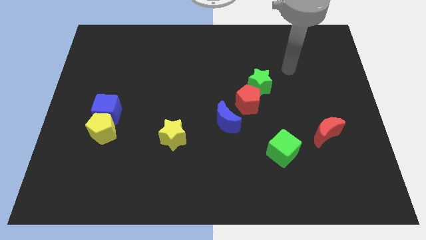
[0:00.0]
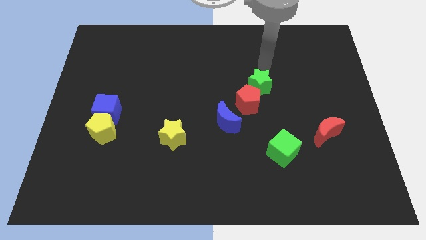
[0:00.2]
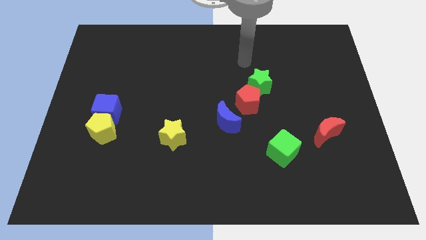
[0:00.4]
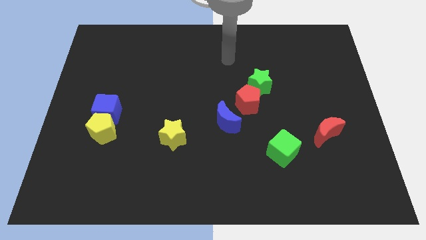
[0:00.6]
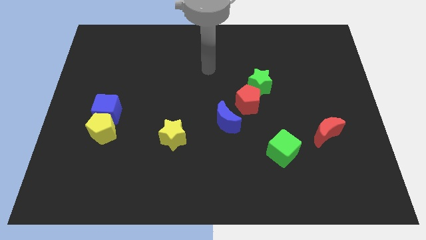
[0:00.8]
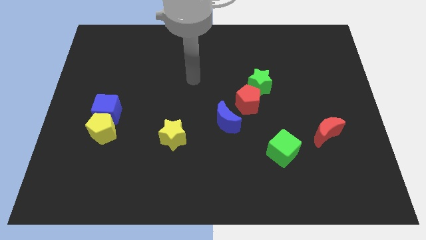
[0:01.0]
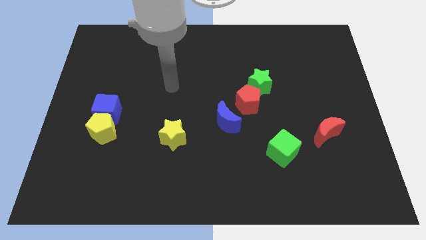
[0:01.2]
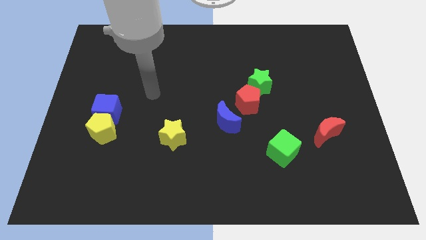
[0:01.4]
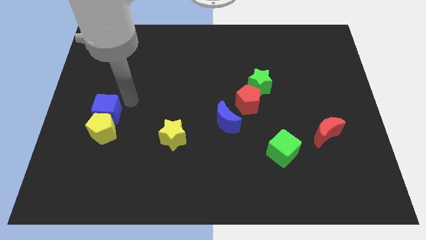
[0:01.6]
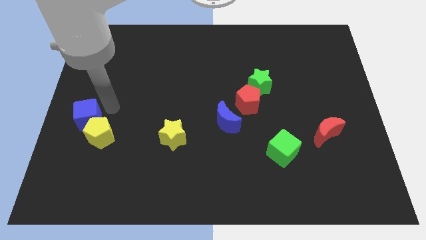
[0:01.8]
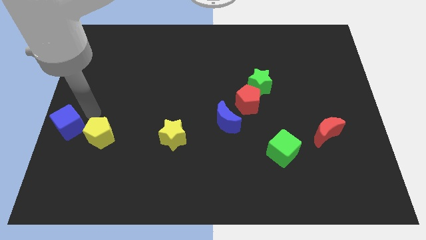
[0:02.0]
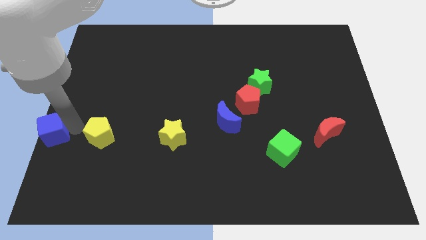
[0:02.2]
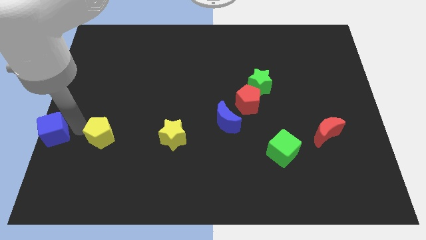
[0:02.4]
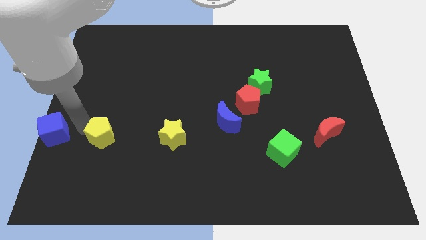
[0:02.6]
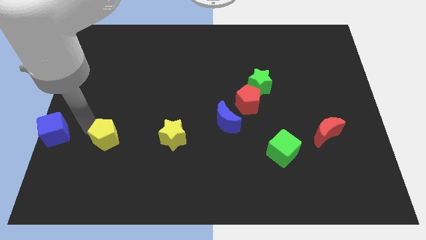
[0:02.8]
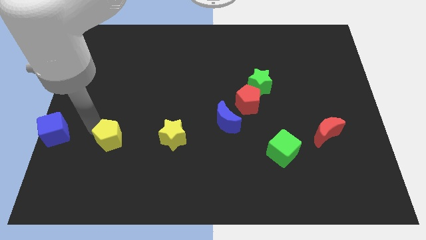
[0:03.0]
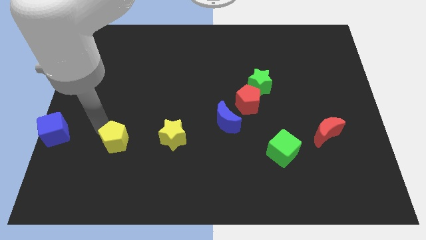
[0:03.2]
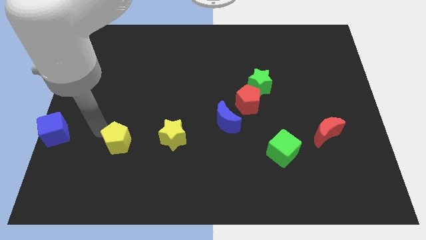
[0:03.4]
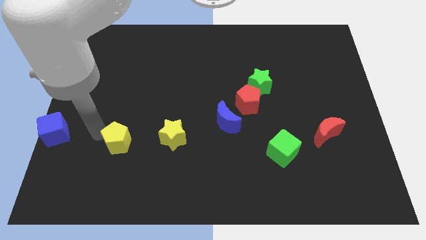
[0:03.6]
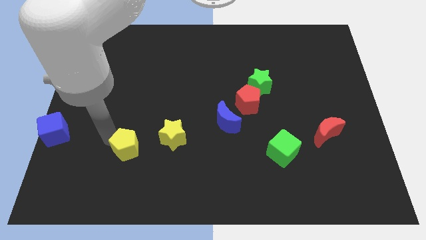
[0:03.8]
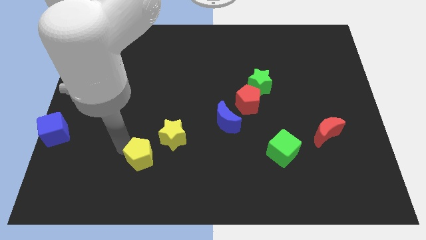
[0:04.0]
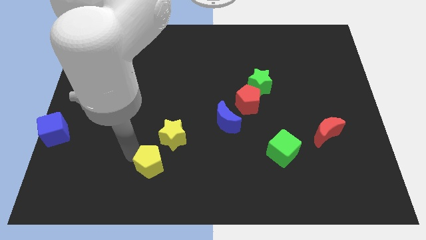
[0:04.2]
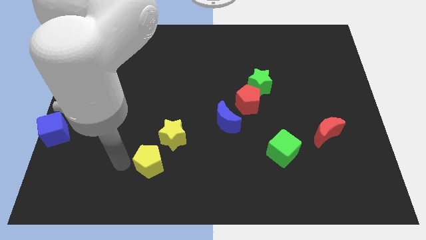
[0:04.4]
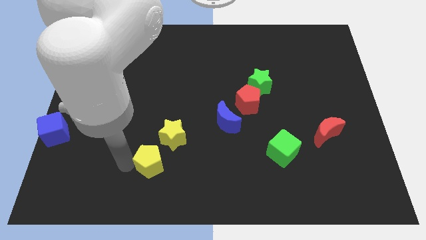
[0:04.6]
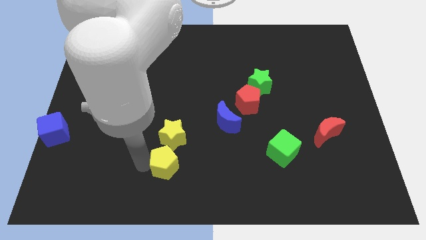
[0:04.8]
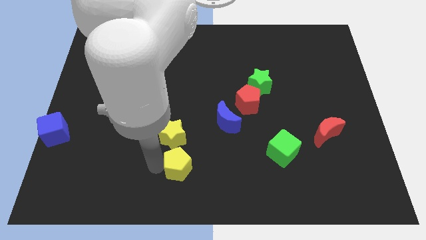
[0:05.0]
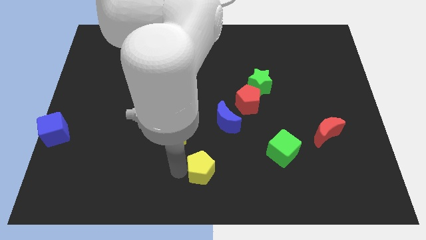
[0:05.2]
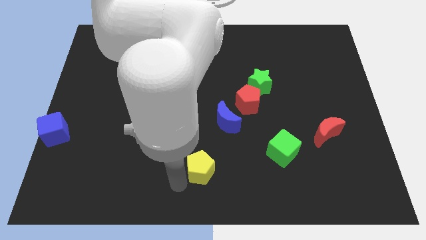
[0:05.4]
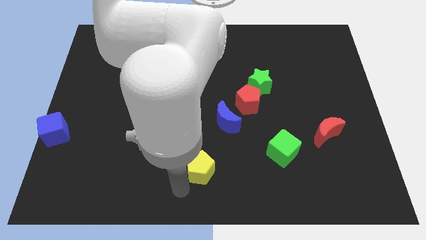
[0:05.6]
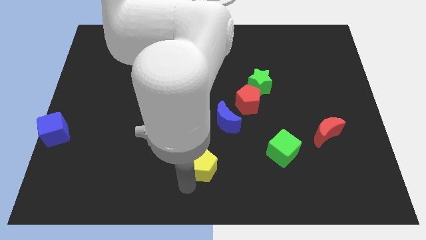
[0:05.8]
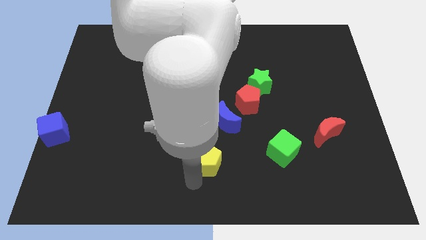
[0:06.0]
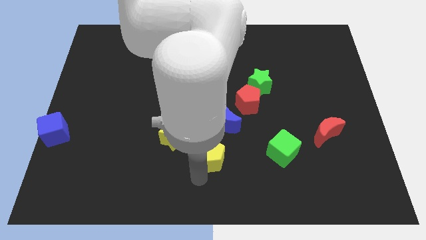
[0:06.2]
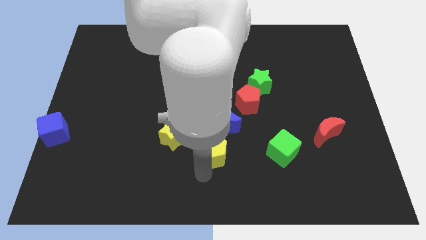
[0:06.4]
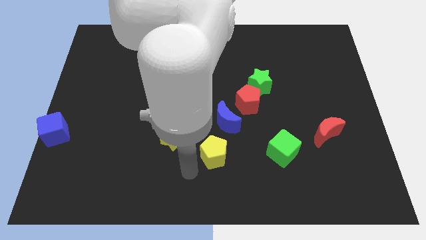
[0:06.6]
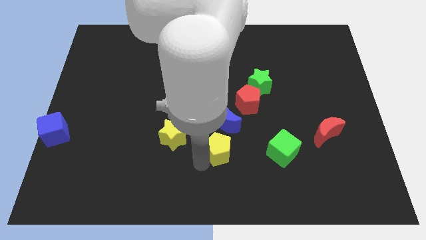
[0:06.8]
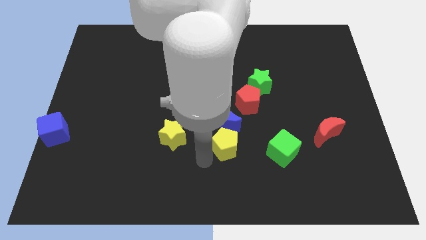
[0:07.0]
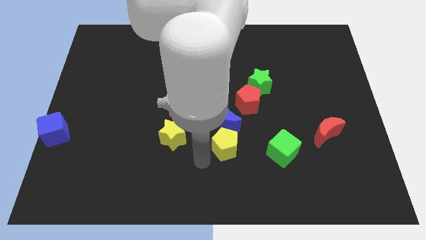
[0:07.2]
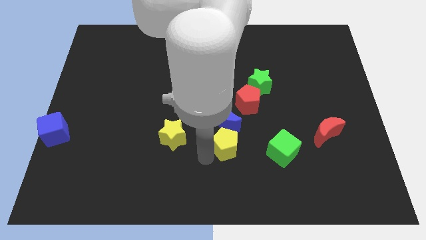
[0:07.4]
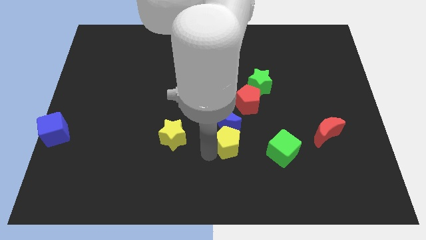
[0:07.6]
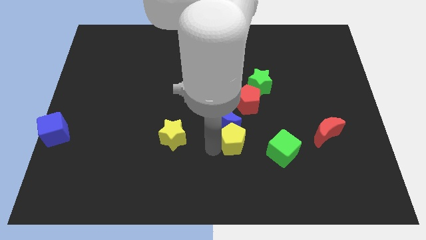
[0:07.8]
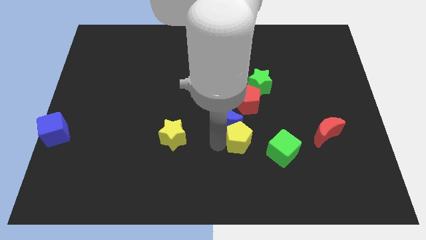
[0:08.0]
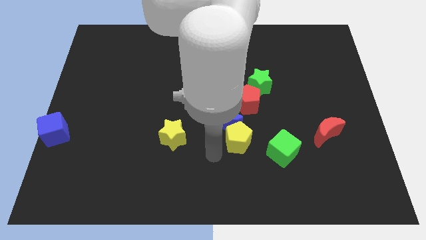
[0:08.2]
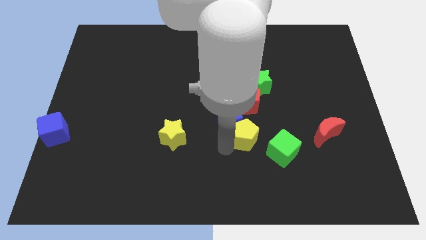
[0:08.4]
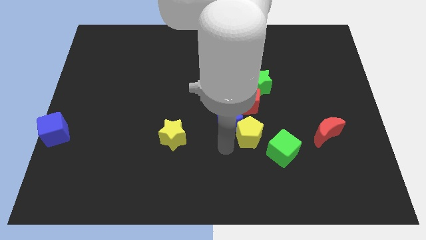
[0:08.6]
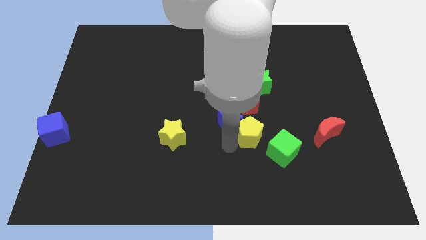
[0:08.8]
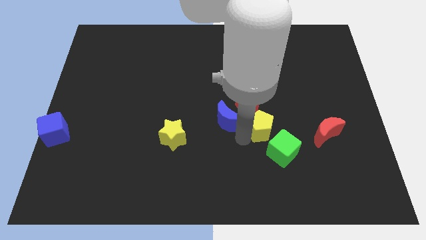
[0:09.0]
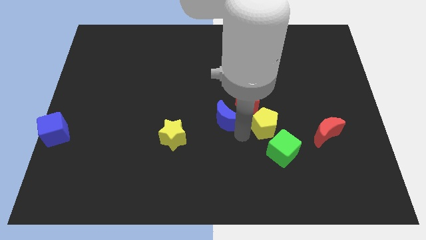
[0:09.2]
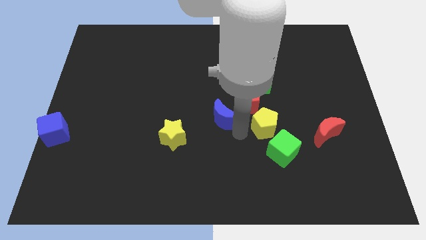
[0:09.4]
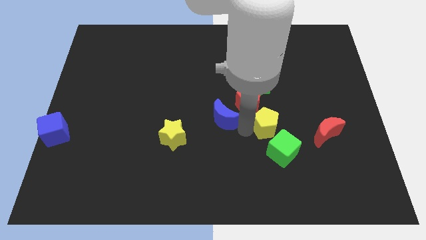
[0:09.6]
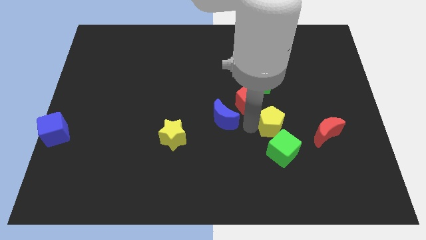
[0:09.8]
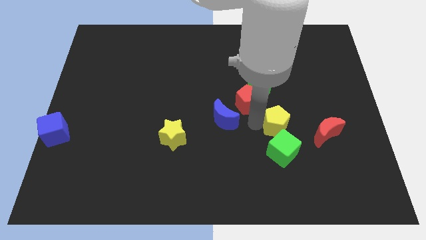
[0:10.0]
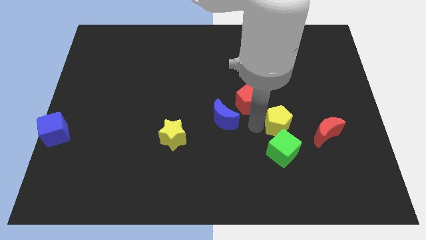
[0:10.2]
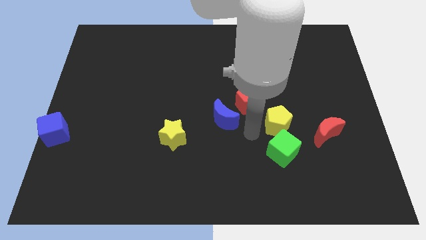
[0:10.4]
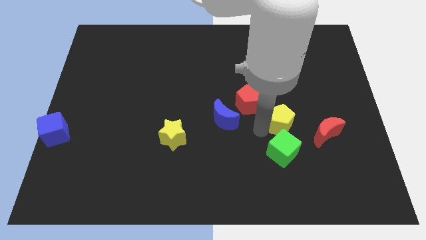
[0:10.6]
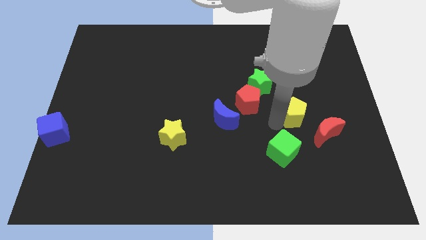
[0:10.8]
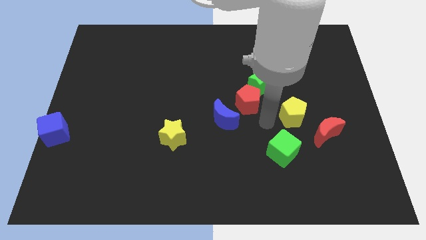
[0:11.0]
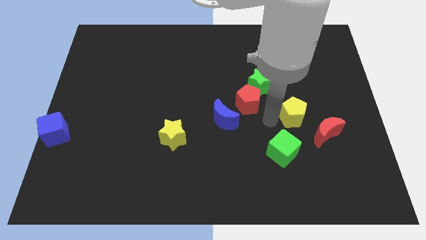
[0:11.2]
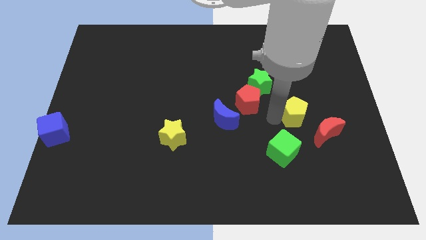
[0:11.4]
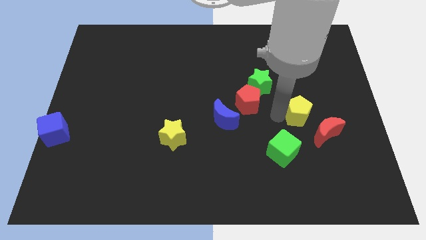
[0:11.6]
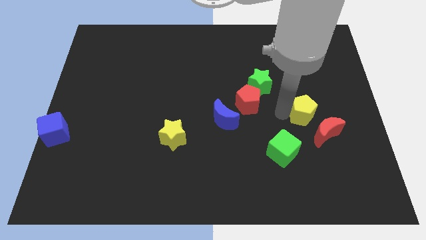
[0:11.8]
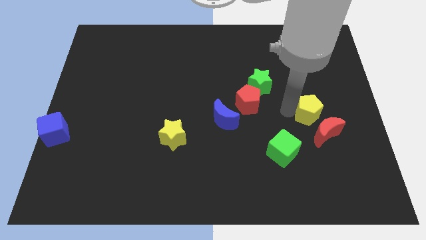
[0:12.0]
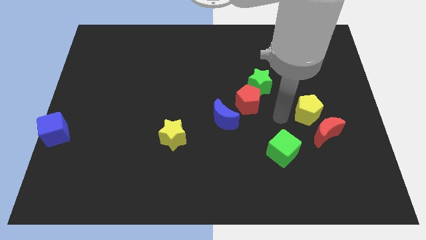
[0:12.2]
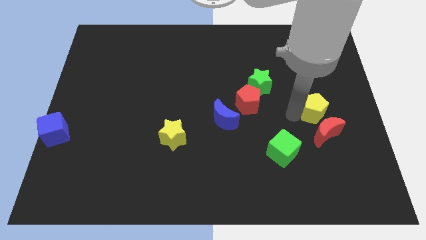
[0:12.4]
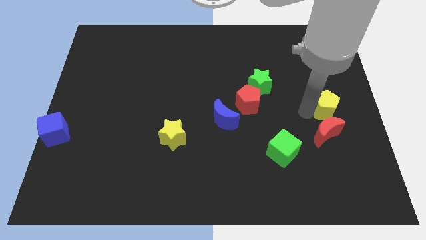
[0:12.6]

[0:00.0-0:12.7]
move the yellow pentagon to the right side of the board
